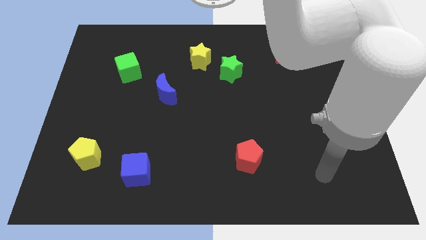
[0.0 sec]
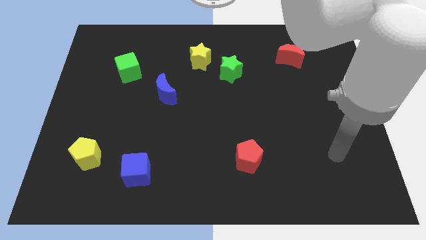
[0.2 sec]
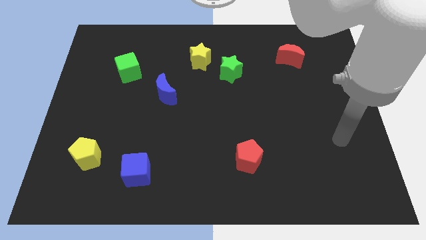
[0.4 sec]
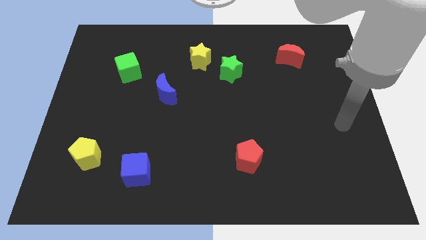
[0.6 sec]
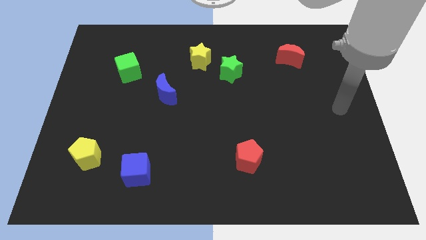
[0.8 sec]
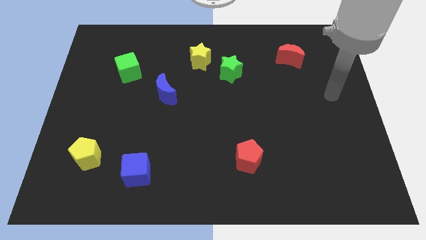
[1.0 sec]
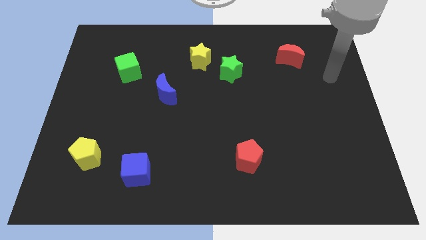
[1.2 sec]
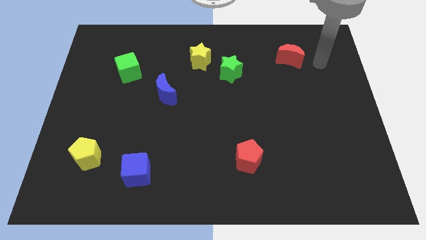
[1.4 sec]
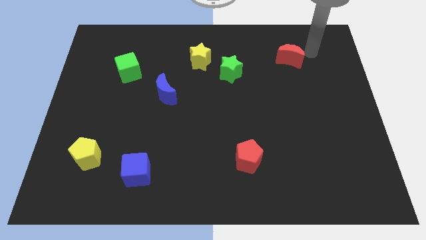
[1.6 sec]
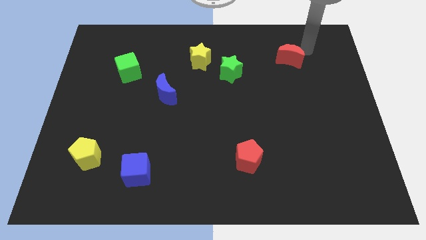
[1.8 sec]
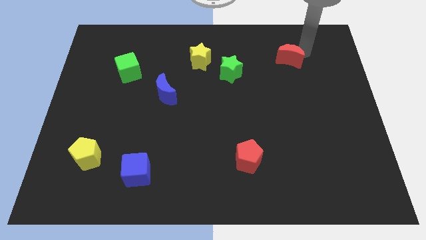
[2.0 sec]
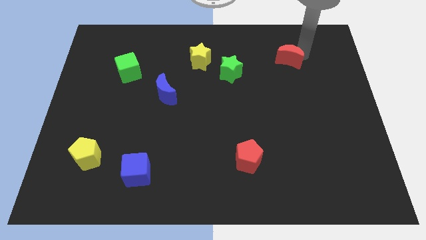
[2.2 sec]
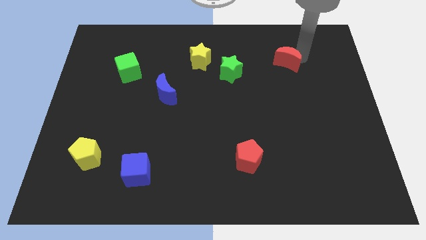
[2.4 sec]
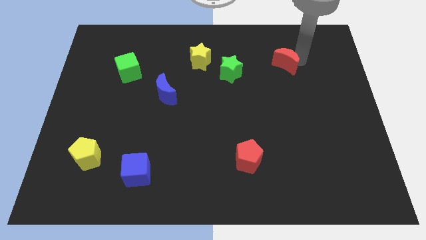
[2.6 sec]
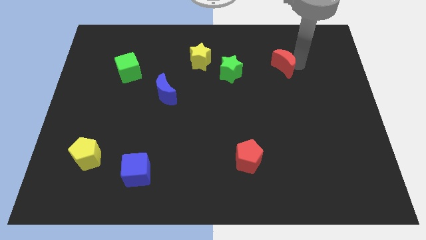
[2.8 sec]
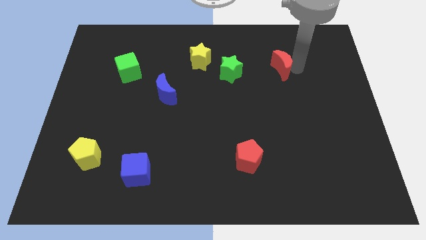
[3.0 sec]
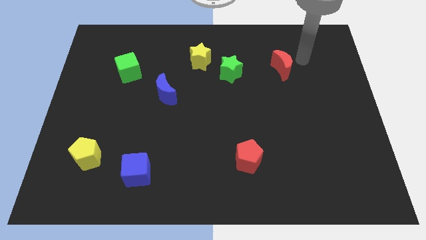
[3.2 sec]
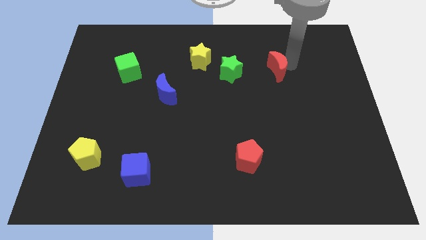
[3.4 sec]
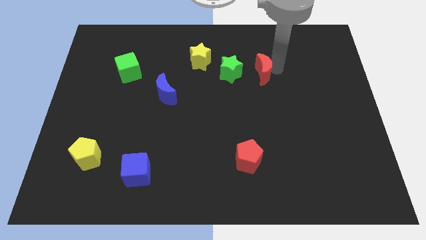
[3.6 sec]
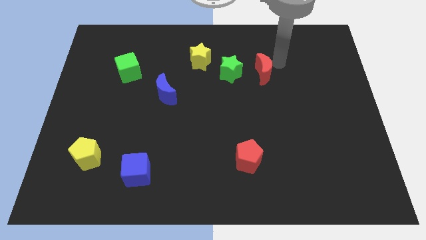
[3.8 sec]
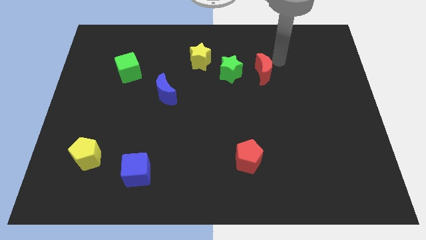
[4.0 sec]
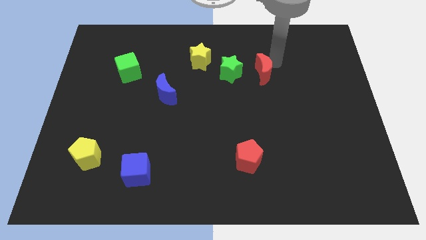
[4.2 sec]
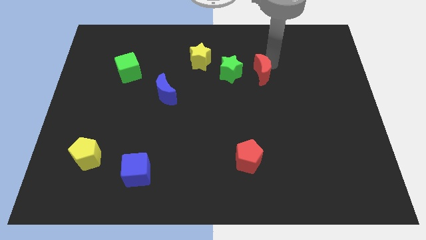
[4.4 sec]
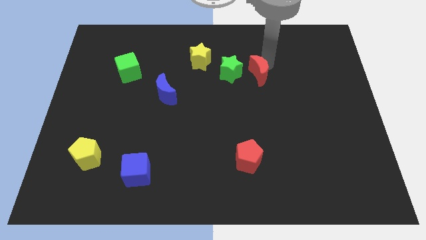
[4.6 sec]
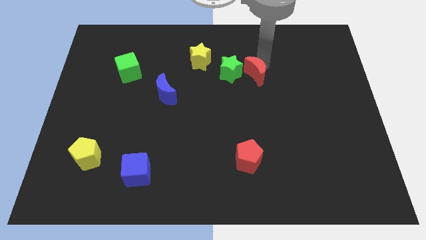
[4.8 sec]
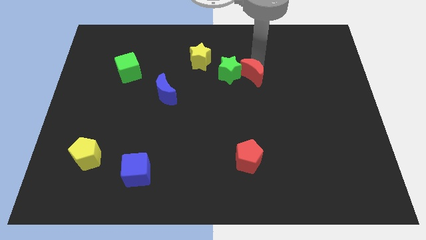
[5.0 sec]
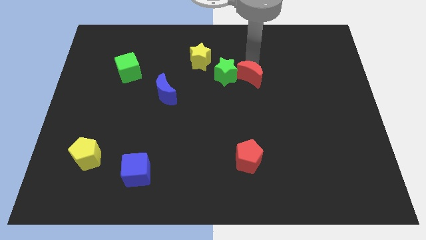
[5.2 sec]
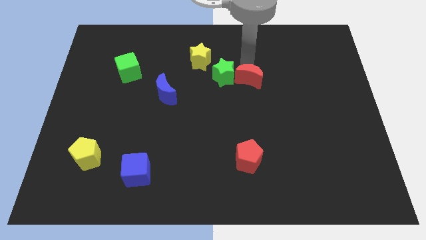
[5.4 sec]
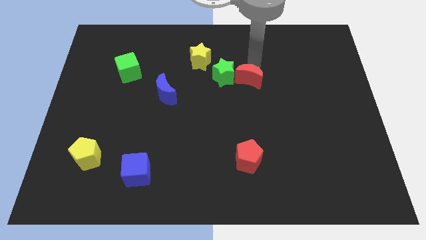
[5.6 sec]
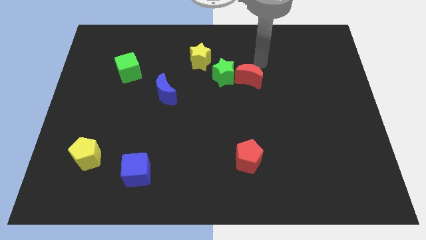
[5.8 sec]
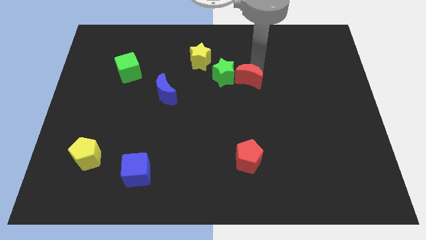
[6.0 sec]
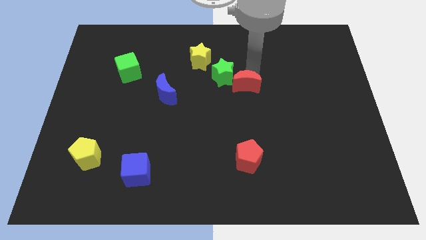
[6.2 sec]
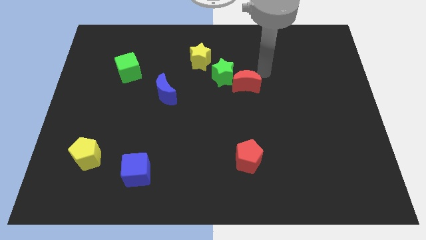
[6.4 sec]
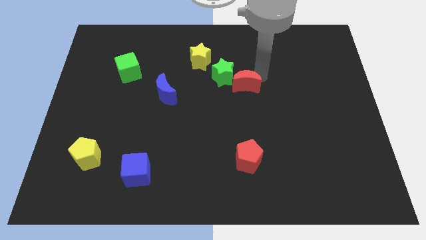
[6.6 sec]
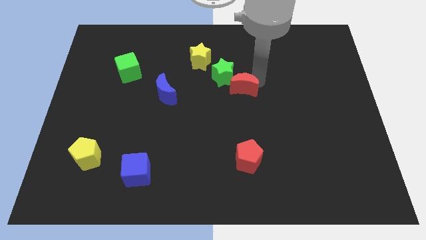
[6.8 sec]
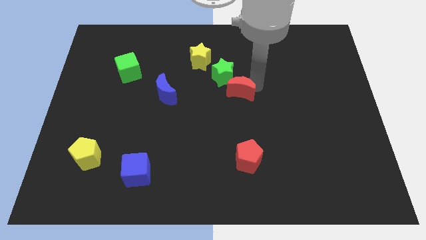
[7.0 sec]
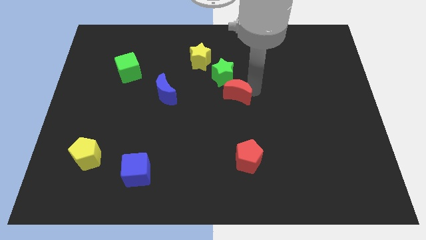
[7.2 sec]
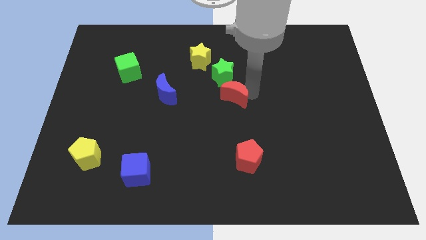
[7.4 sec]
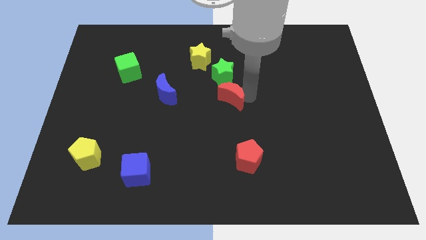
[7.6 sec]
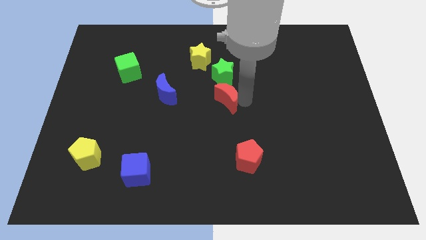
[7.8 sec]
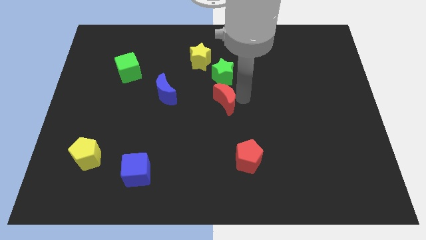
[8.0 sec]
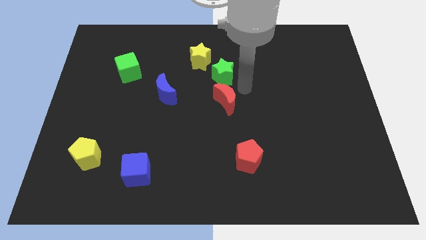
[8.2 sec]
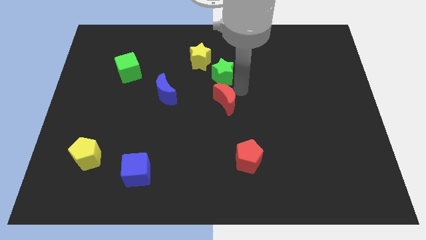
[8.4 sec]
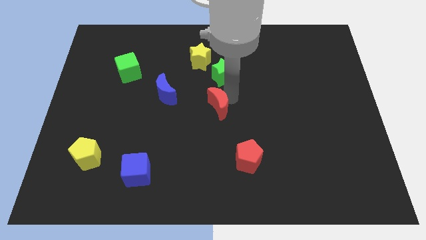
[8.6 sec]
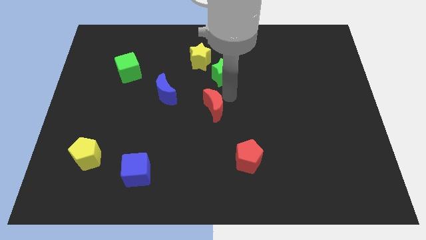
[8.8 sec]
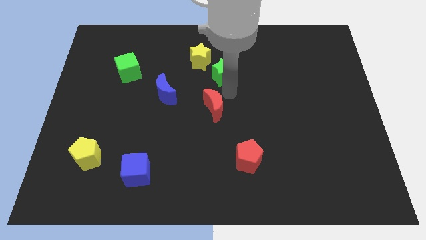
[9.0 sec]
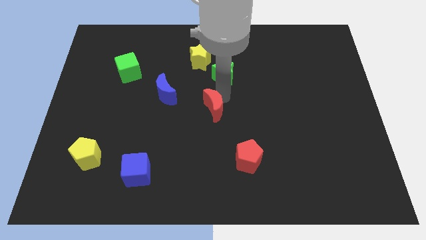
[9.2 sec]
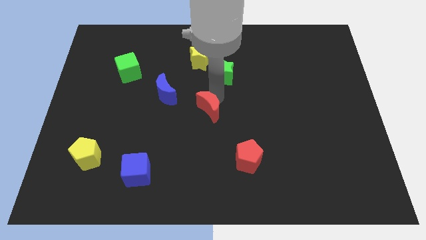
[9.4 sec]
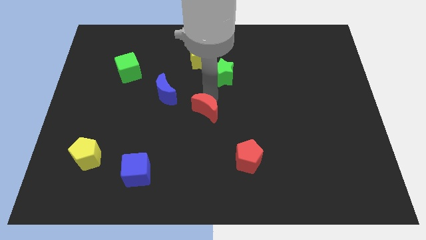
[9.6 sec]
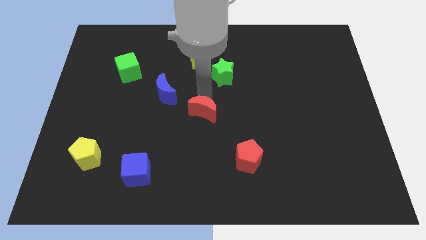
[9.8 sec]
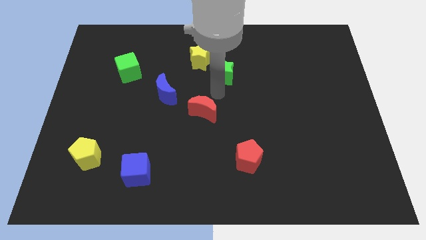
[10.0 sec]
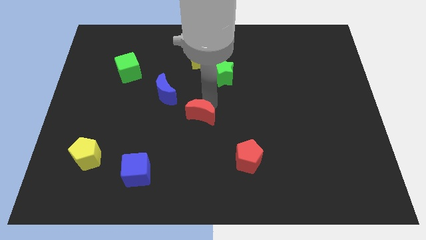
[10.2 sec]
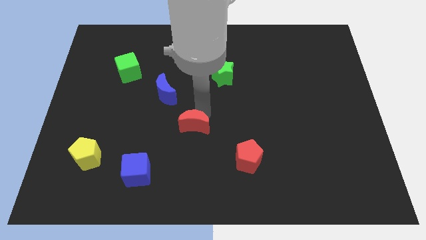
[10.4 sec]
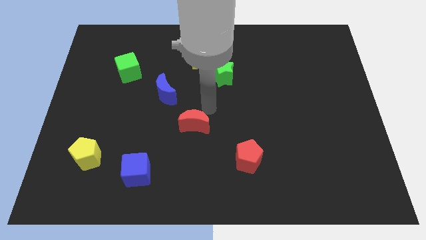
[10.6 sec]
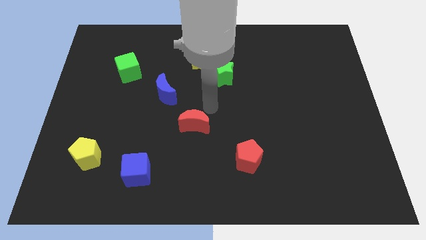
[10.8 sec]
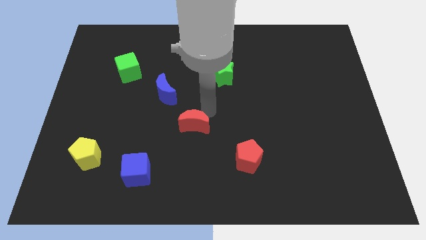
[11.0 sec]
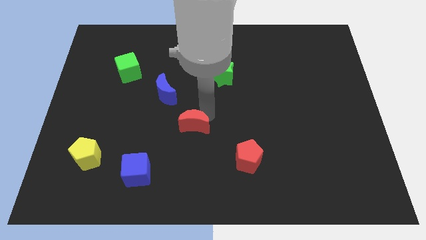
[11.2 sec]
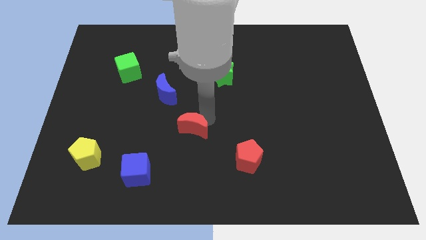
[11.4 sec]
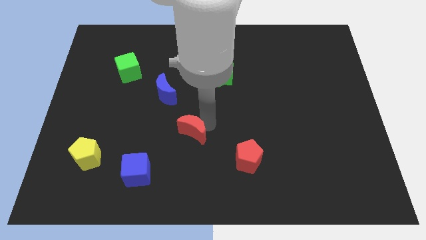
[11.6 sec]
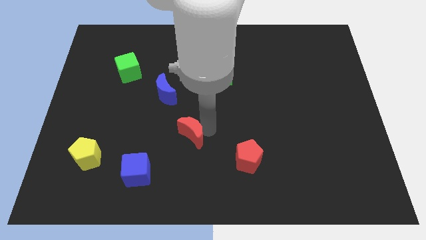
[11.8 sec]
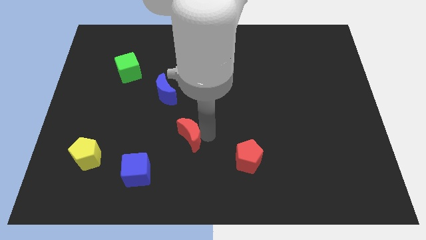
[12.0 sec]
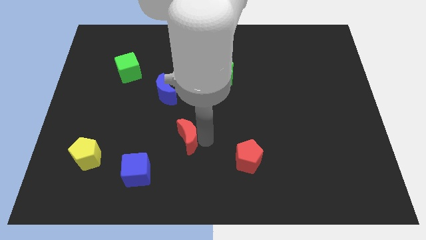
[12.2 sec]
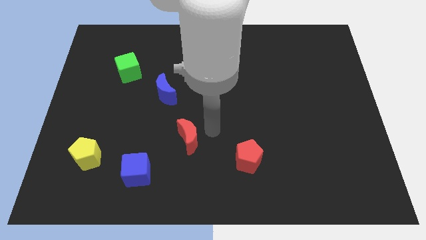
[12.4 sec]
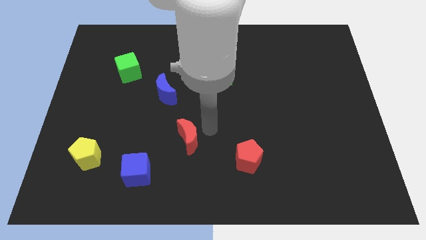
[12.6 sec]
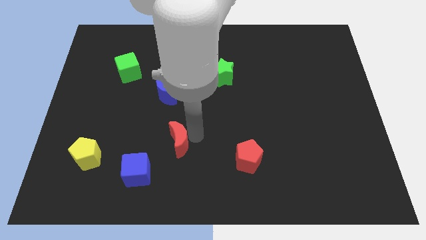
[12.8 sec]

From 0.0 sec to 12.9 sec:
slide the red moon diagonally up and to the right of the blue cube
